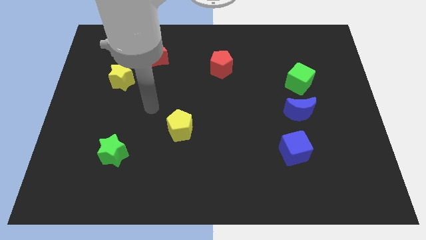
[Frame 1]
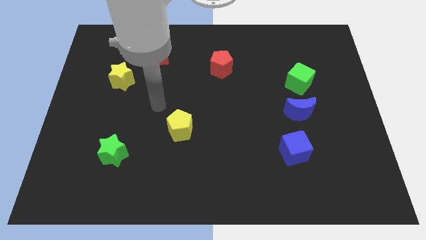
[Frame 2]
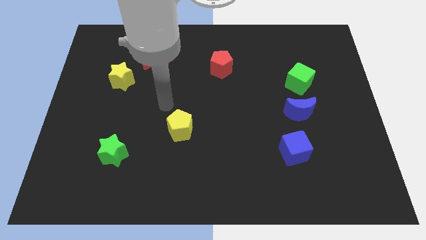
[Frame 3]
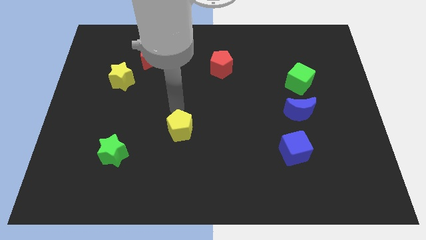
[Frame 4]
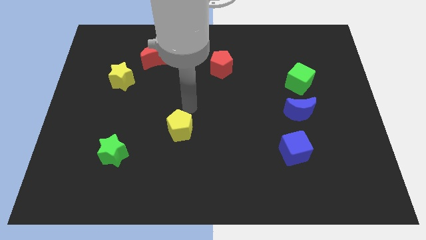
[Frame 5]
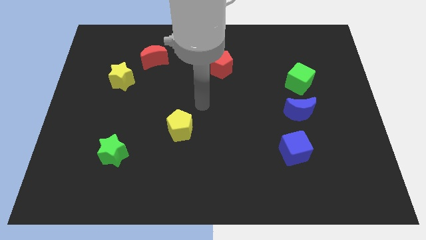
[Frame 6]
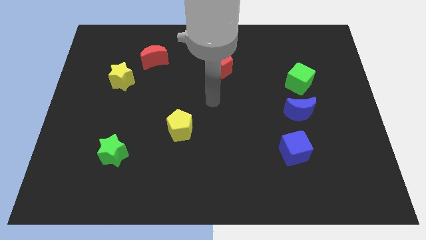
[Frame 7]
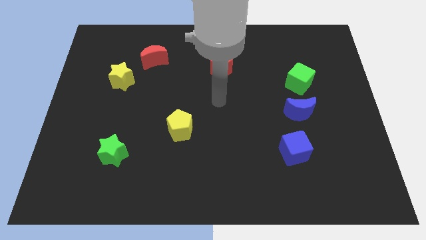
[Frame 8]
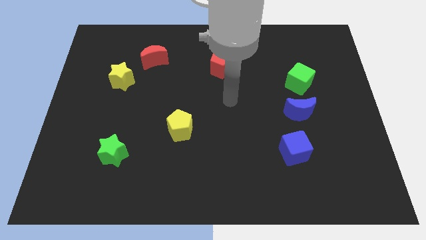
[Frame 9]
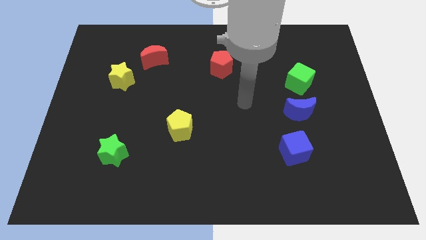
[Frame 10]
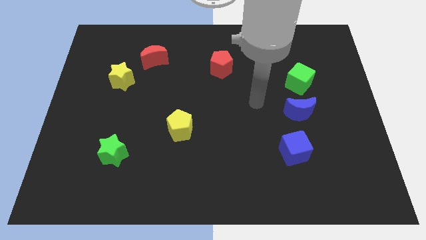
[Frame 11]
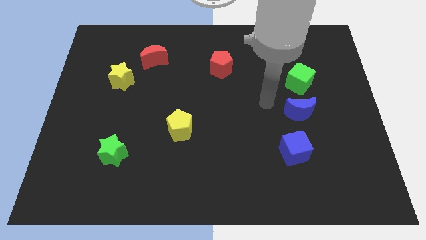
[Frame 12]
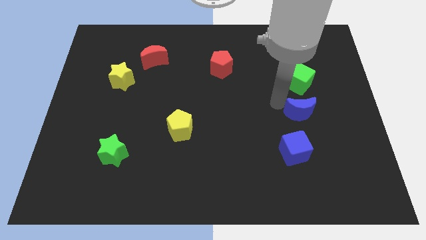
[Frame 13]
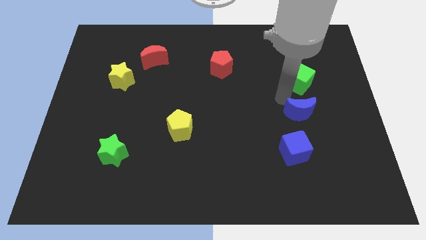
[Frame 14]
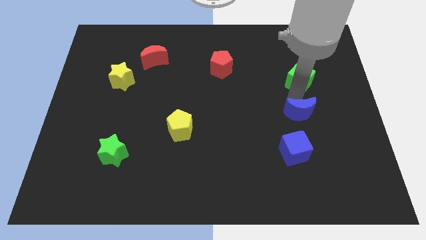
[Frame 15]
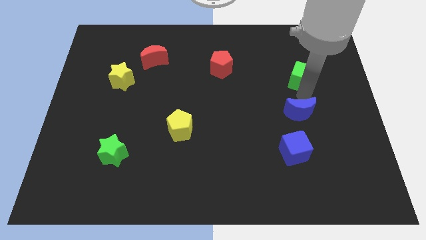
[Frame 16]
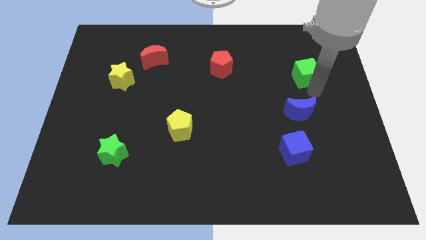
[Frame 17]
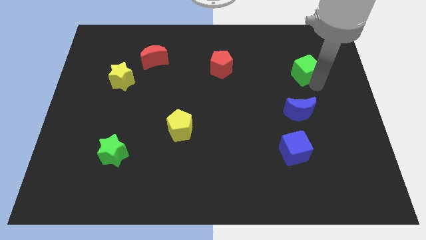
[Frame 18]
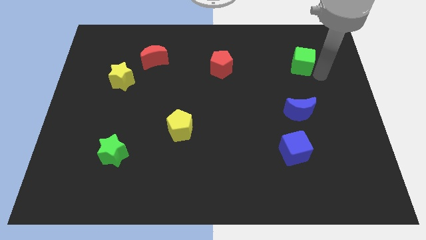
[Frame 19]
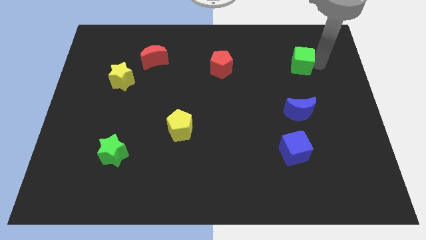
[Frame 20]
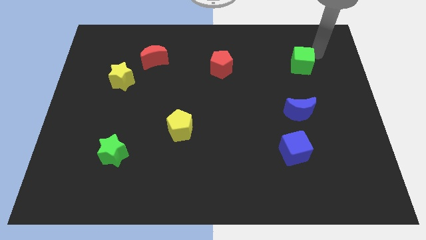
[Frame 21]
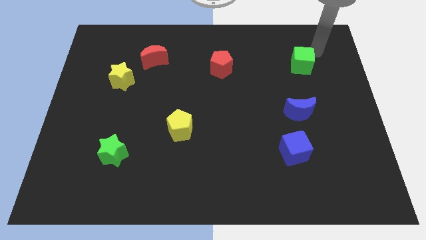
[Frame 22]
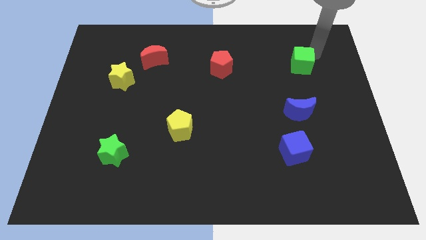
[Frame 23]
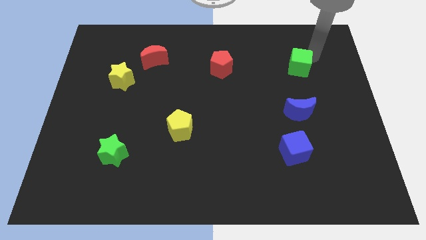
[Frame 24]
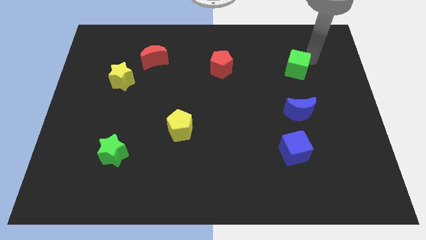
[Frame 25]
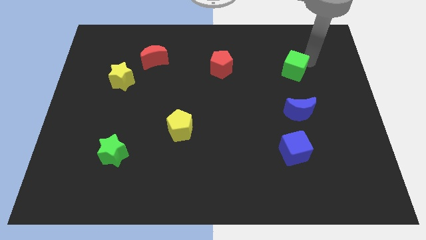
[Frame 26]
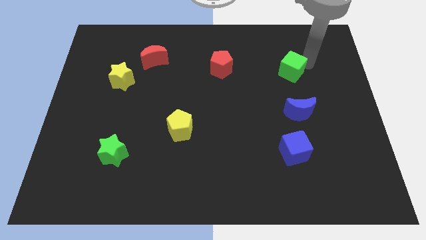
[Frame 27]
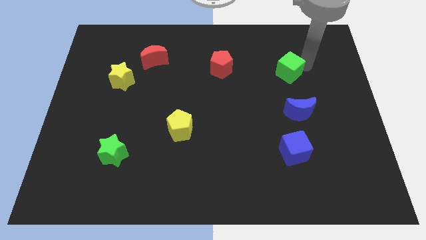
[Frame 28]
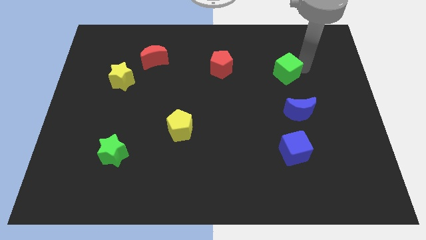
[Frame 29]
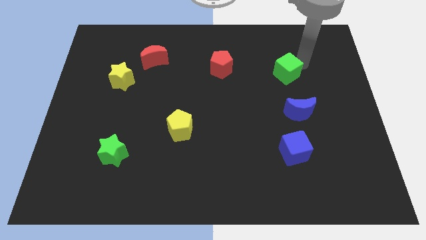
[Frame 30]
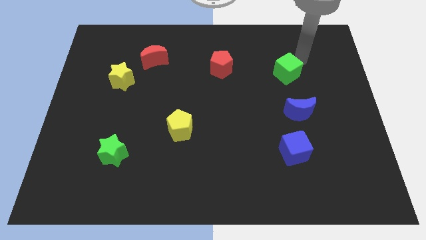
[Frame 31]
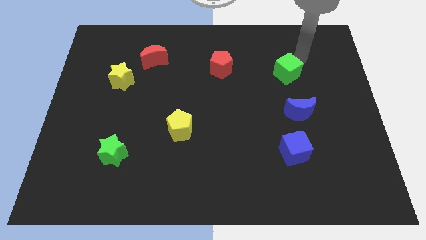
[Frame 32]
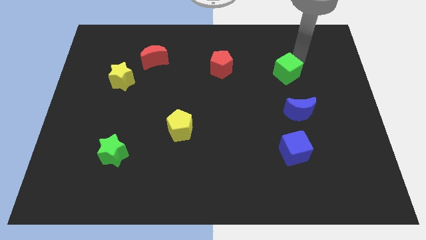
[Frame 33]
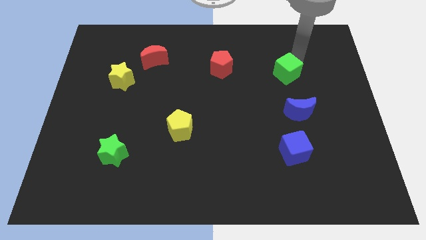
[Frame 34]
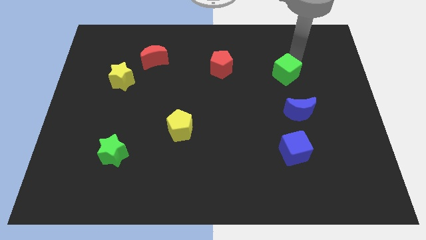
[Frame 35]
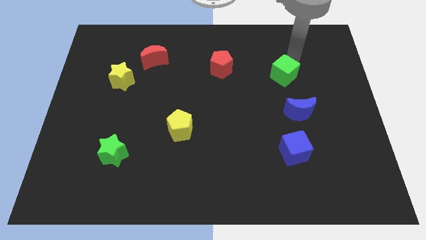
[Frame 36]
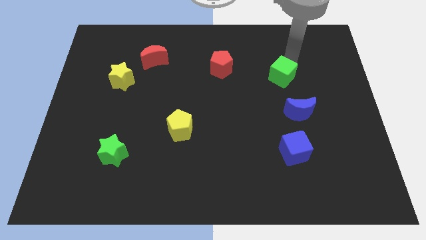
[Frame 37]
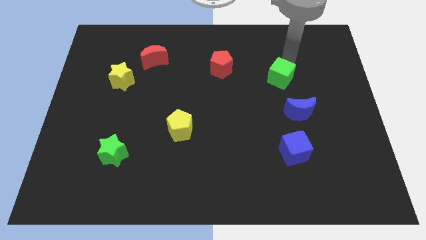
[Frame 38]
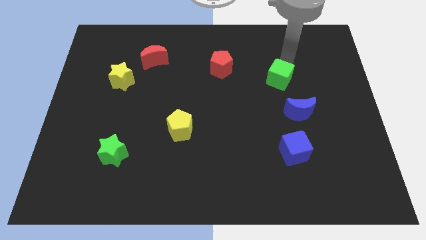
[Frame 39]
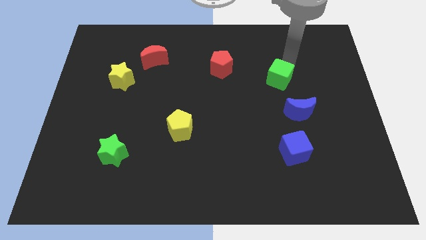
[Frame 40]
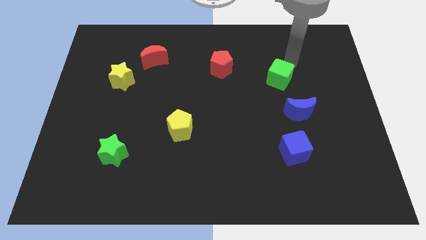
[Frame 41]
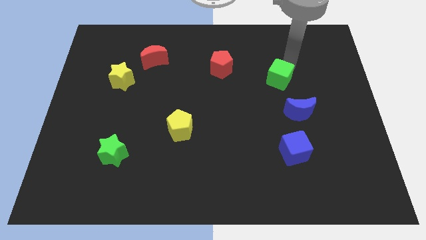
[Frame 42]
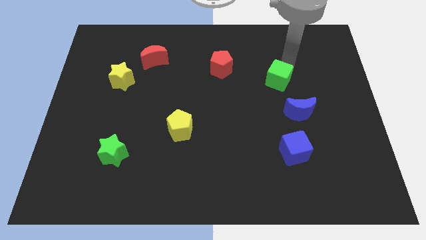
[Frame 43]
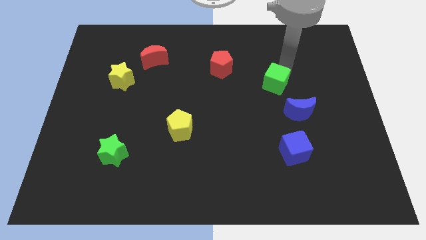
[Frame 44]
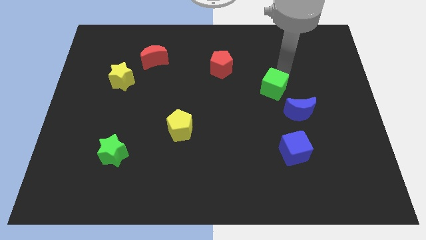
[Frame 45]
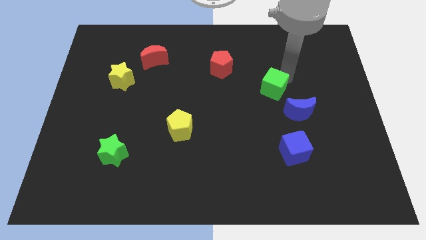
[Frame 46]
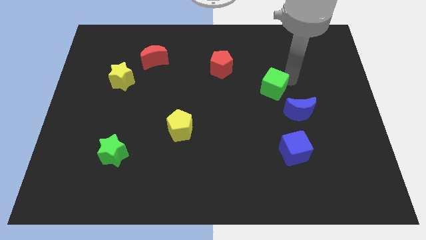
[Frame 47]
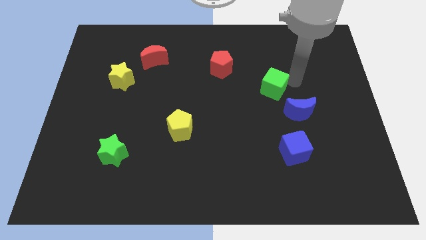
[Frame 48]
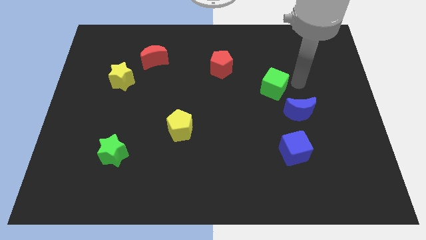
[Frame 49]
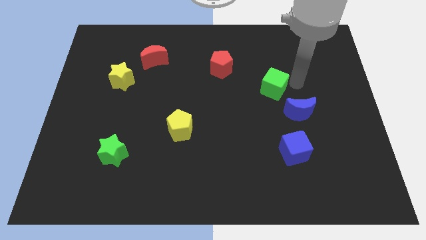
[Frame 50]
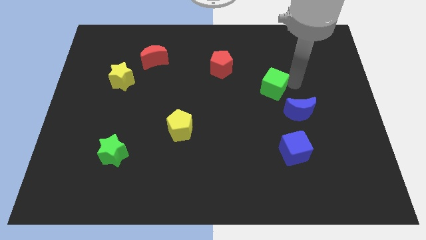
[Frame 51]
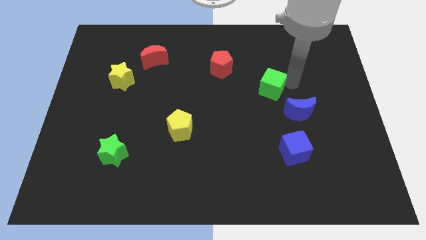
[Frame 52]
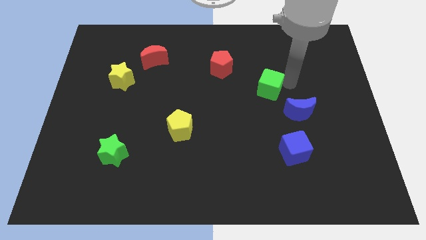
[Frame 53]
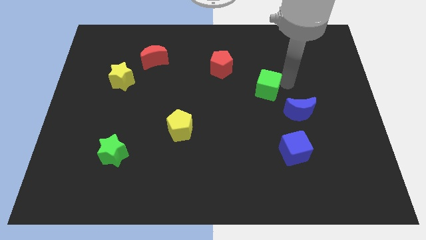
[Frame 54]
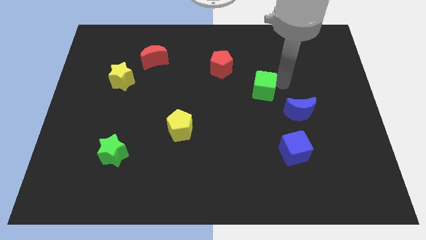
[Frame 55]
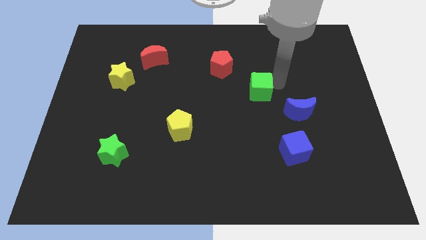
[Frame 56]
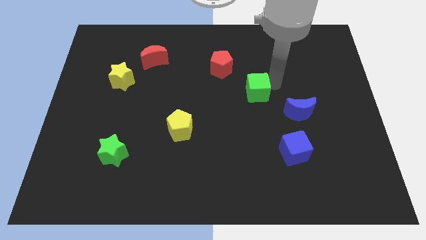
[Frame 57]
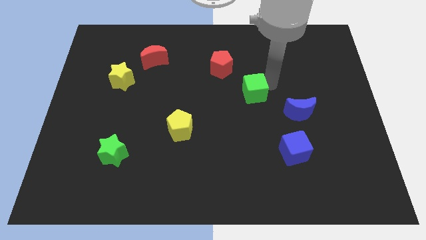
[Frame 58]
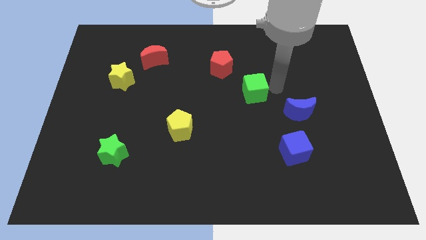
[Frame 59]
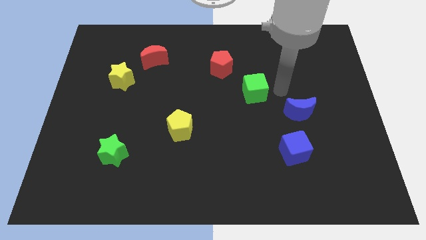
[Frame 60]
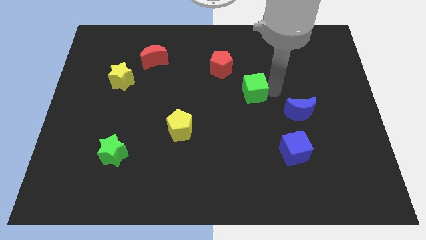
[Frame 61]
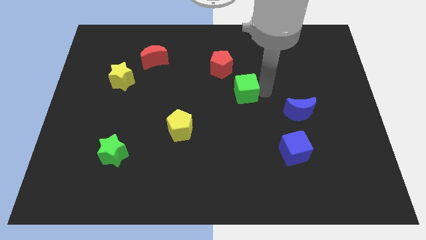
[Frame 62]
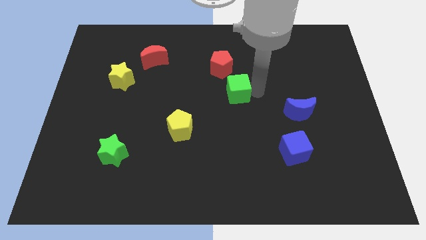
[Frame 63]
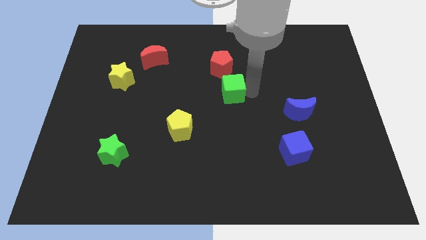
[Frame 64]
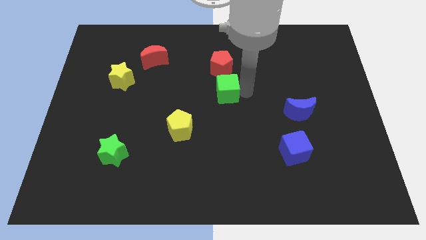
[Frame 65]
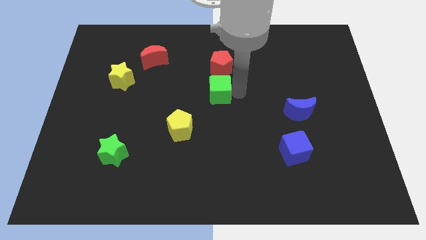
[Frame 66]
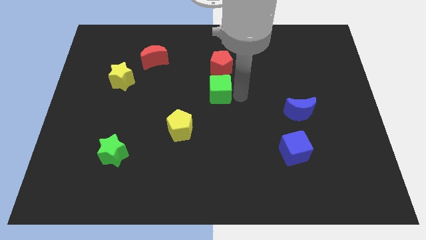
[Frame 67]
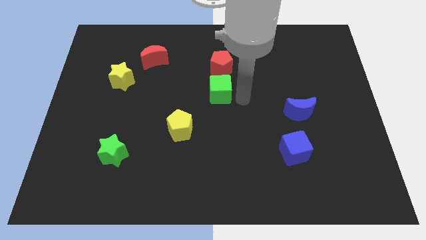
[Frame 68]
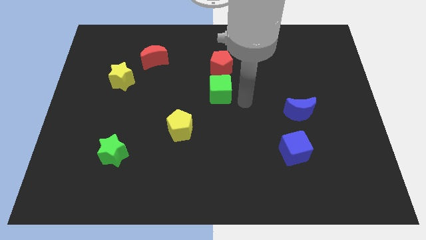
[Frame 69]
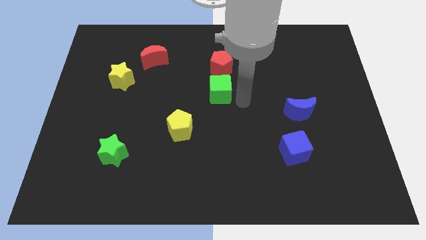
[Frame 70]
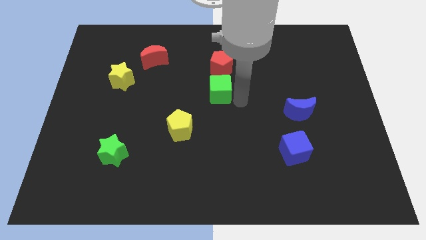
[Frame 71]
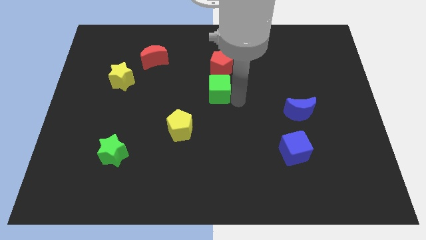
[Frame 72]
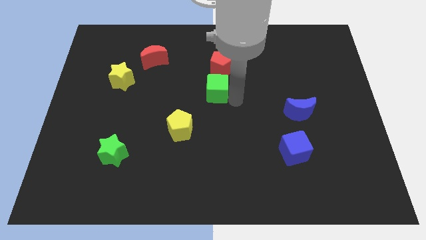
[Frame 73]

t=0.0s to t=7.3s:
slide the green cube left

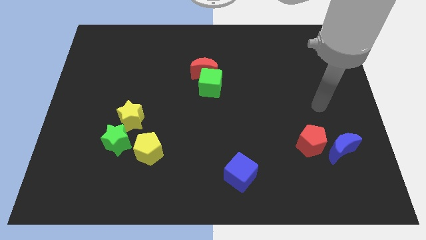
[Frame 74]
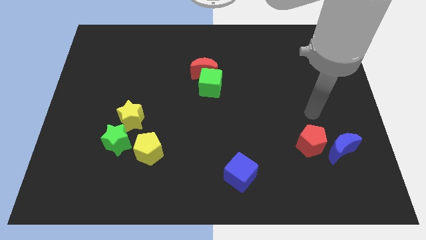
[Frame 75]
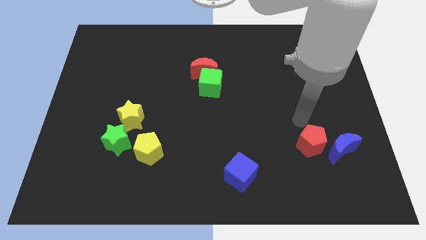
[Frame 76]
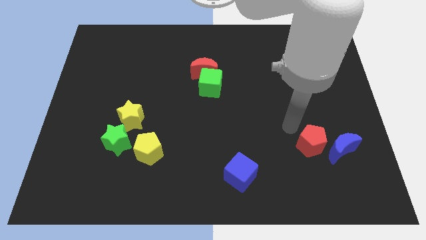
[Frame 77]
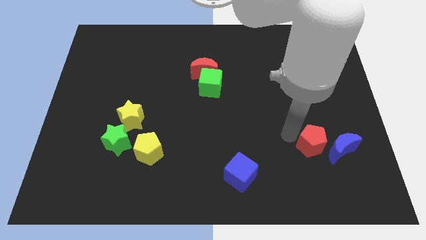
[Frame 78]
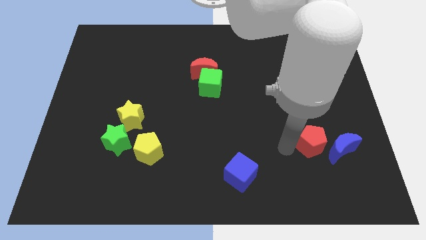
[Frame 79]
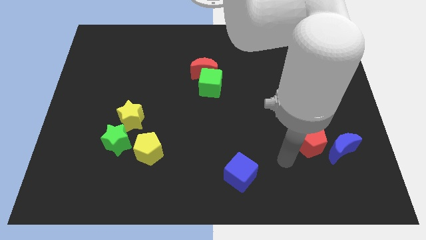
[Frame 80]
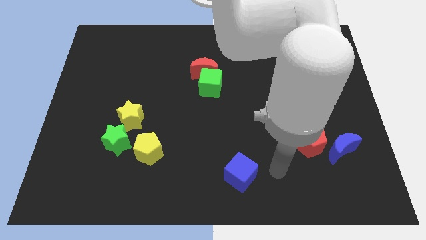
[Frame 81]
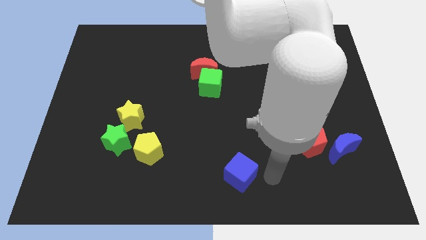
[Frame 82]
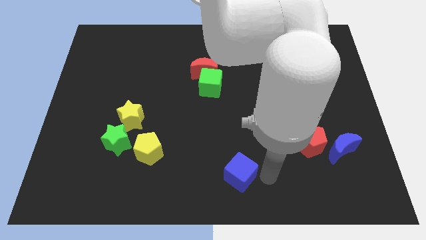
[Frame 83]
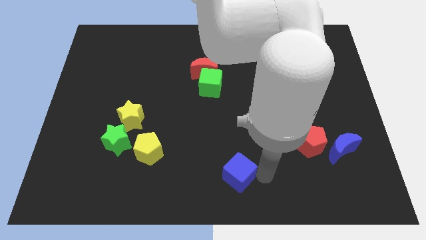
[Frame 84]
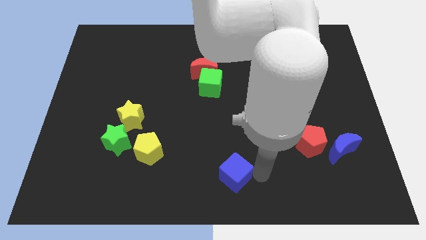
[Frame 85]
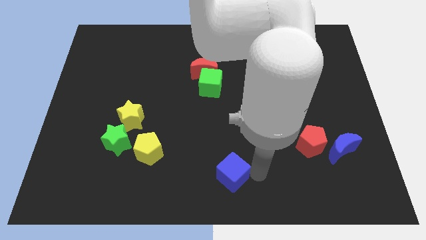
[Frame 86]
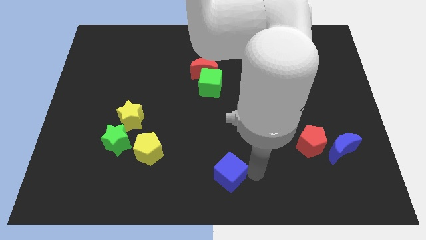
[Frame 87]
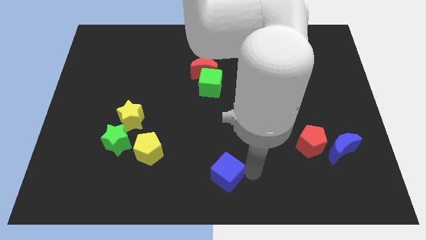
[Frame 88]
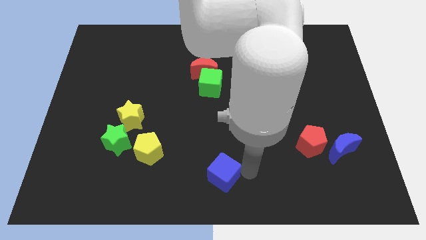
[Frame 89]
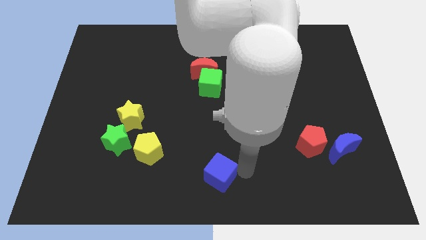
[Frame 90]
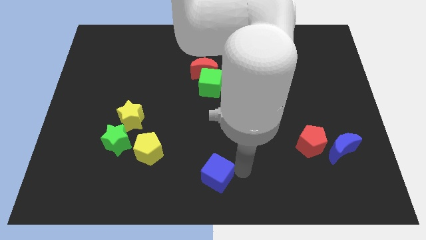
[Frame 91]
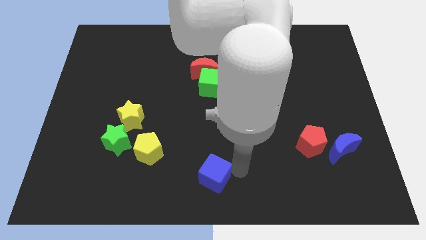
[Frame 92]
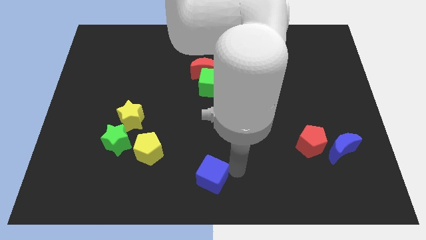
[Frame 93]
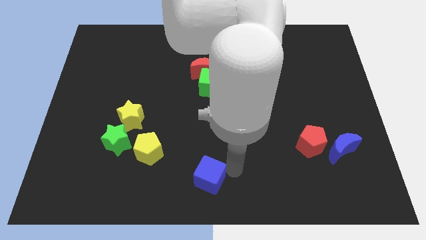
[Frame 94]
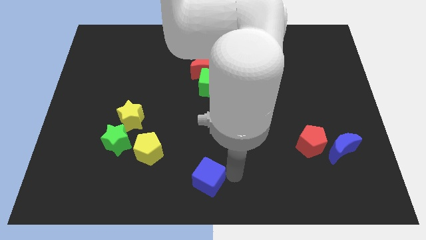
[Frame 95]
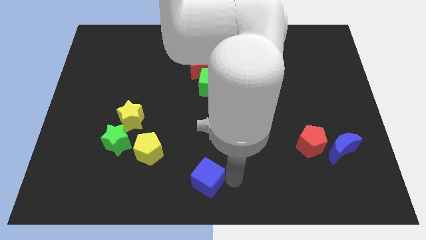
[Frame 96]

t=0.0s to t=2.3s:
slide the blue cube to the left a bit
